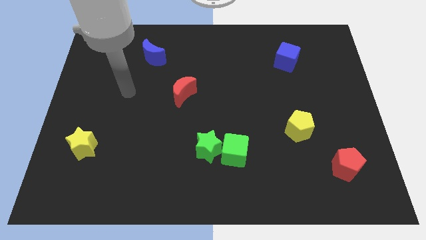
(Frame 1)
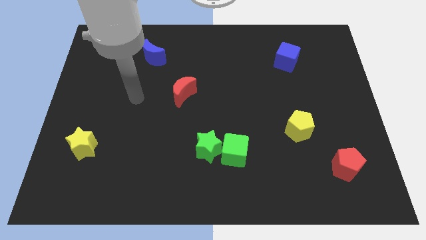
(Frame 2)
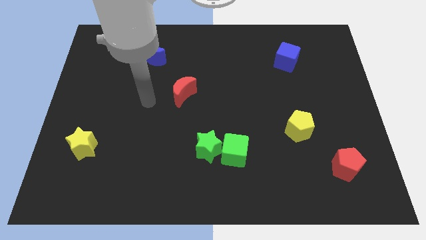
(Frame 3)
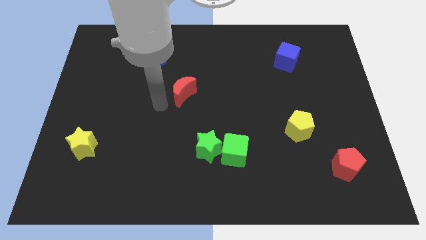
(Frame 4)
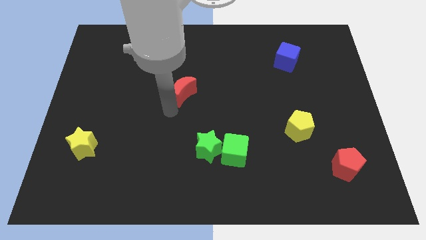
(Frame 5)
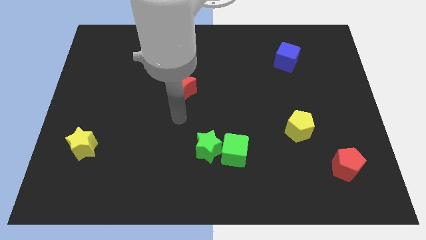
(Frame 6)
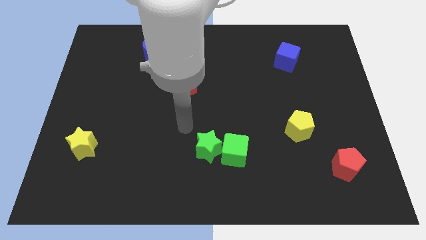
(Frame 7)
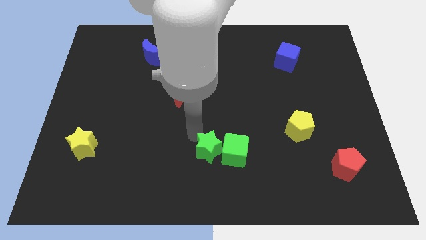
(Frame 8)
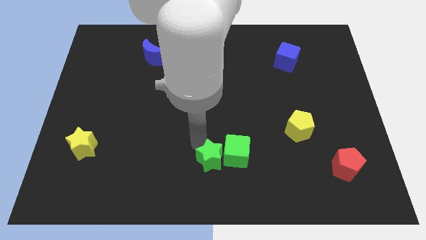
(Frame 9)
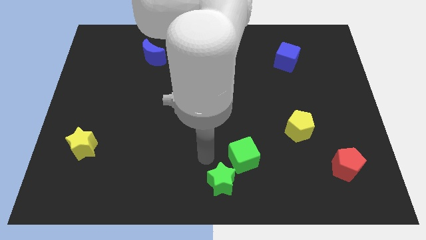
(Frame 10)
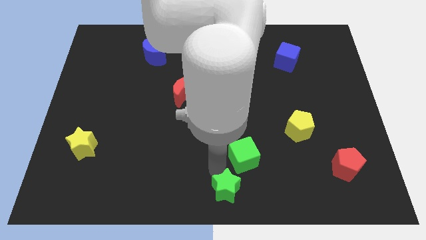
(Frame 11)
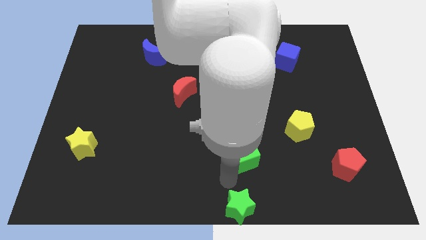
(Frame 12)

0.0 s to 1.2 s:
pull the green cube apart from the green star

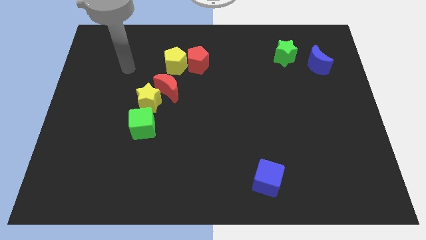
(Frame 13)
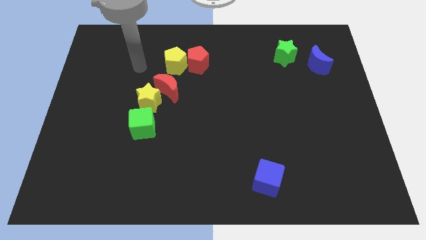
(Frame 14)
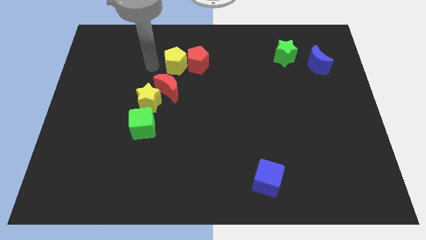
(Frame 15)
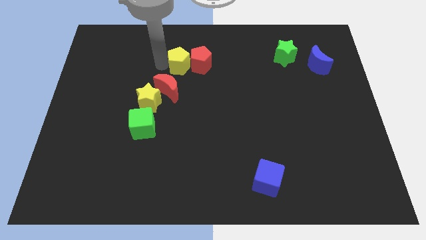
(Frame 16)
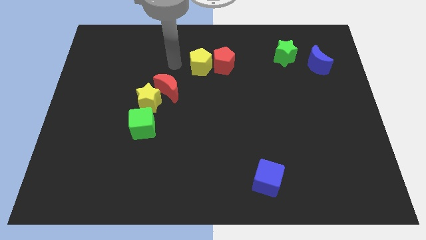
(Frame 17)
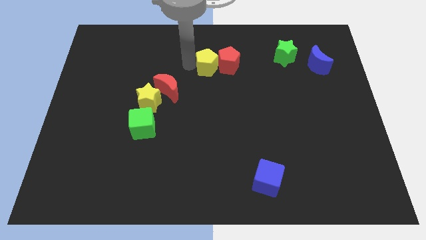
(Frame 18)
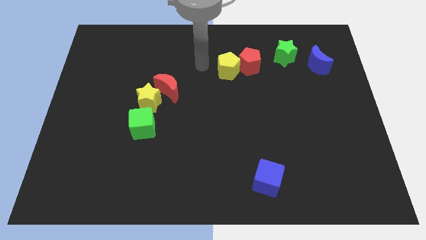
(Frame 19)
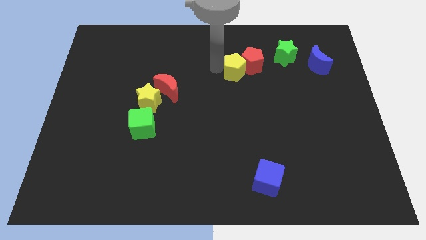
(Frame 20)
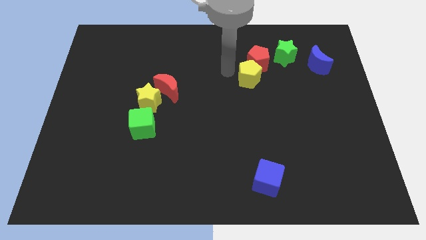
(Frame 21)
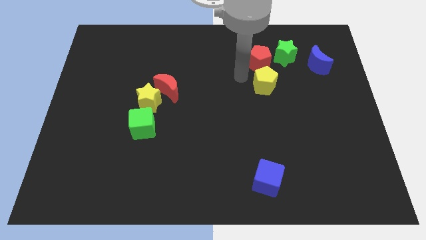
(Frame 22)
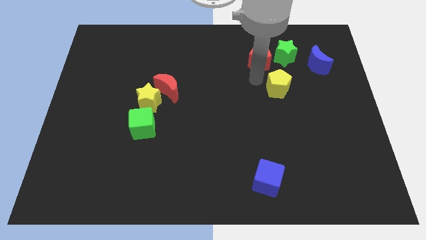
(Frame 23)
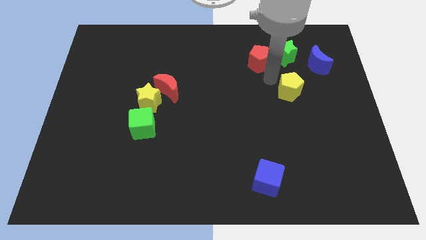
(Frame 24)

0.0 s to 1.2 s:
pull the red pentagon apart from the yellow pentagon

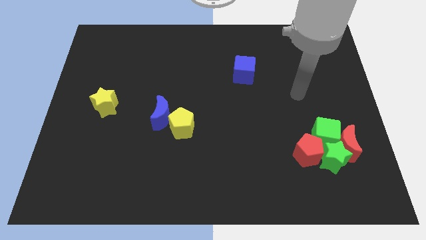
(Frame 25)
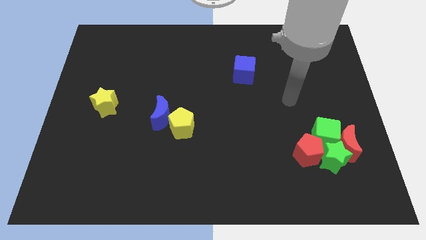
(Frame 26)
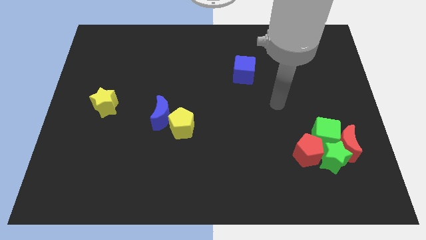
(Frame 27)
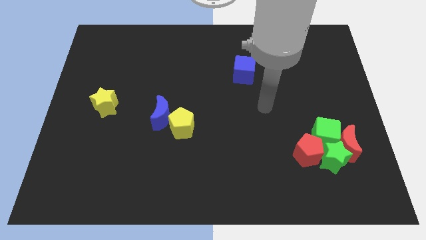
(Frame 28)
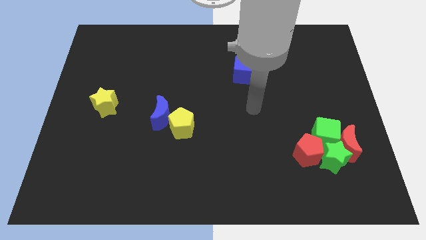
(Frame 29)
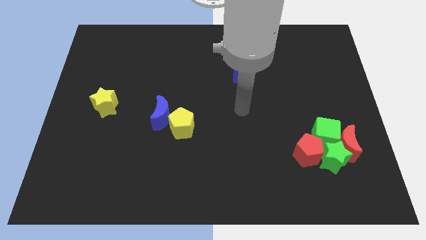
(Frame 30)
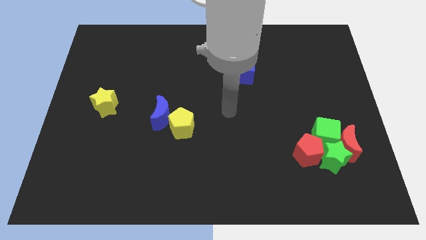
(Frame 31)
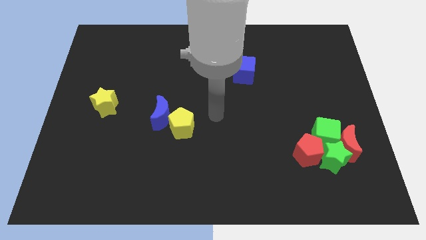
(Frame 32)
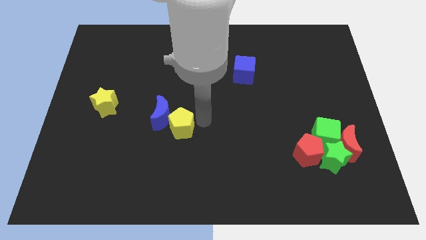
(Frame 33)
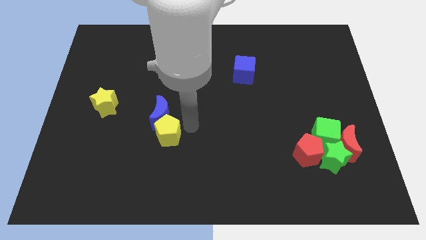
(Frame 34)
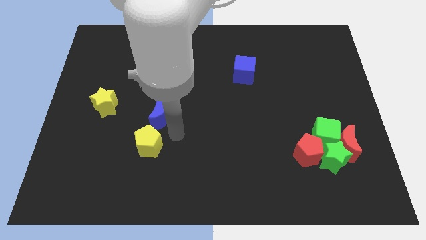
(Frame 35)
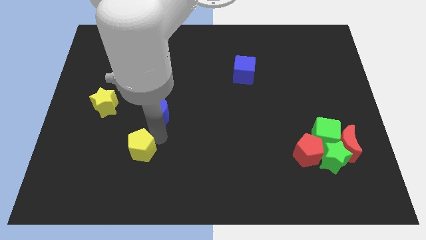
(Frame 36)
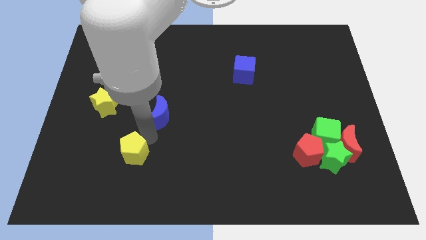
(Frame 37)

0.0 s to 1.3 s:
pull the blue moon apart from the yellow pentagon

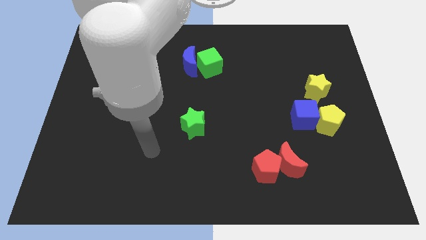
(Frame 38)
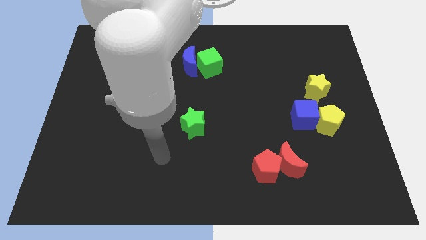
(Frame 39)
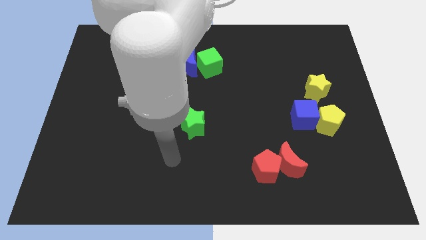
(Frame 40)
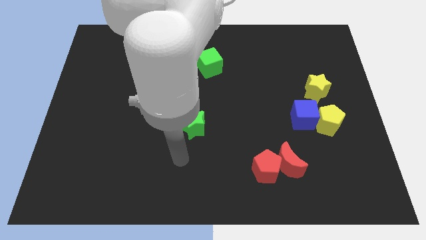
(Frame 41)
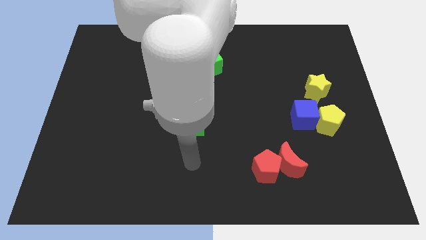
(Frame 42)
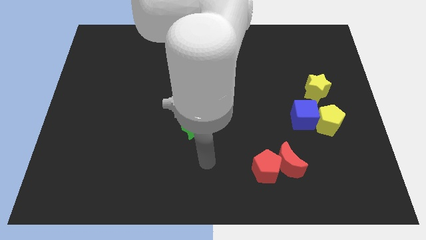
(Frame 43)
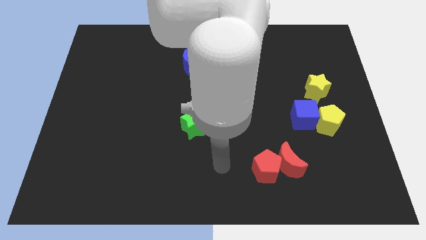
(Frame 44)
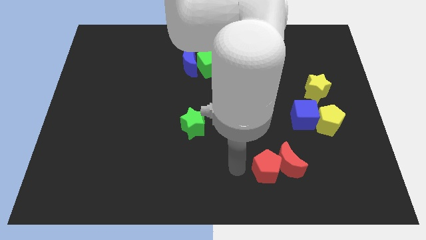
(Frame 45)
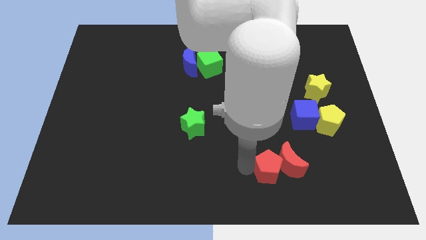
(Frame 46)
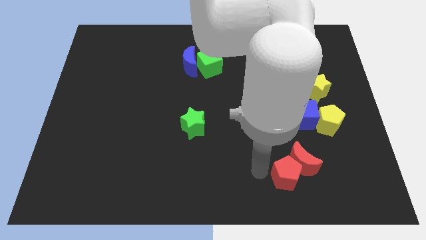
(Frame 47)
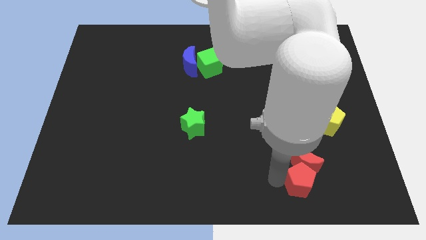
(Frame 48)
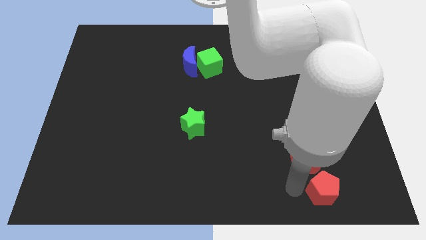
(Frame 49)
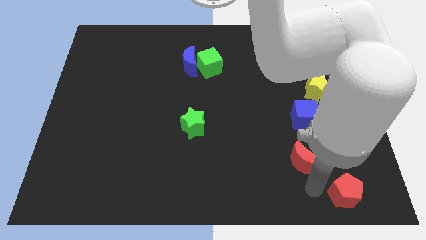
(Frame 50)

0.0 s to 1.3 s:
separate the red moon from the red pentagon

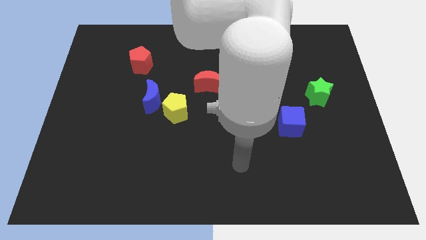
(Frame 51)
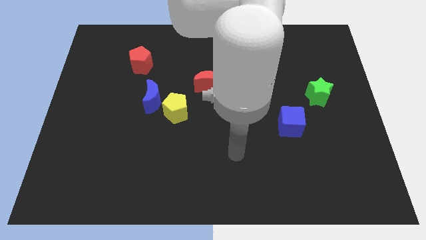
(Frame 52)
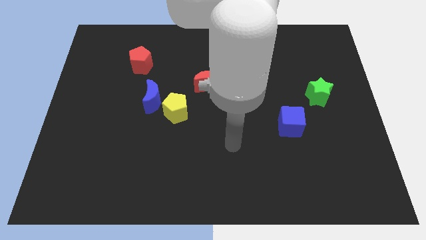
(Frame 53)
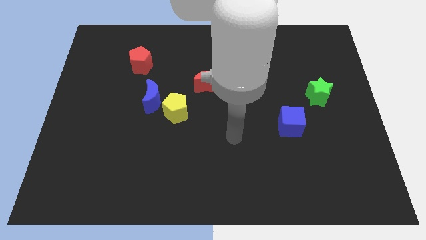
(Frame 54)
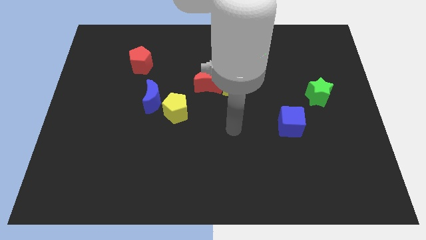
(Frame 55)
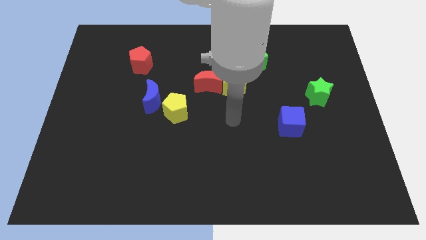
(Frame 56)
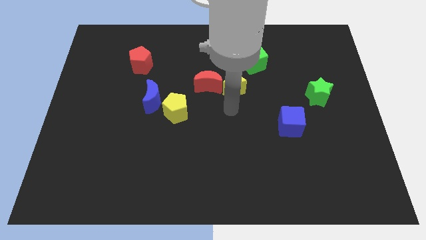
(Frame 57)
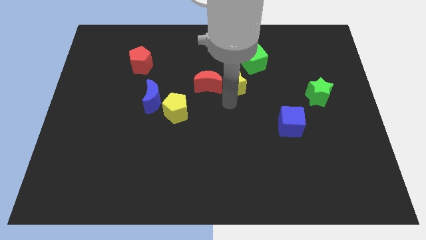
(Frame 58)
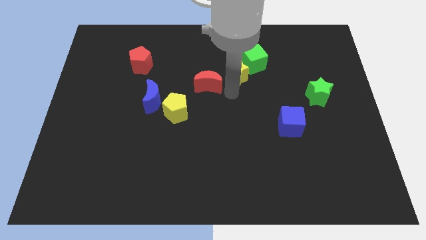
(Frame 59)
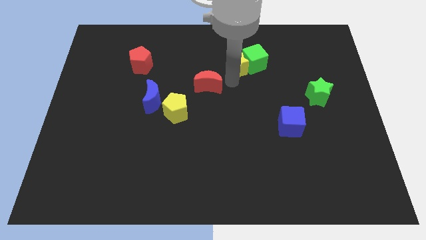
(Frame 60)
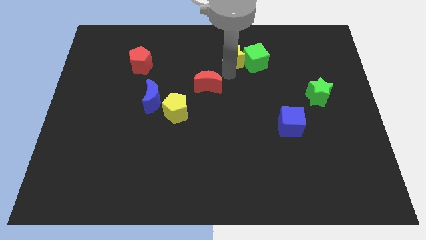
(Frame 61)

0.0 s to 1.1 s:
pull the red moon apart from the yellow star

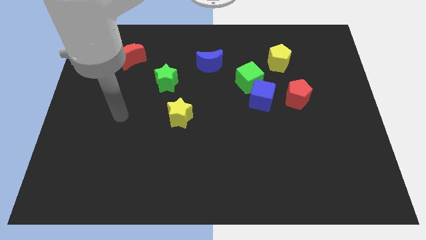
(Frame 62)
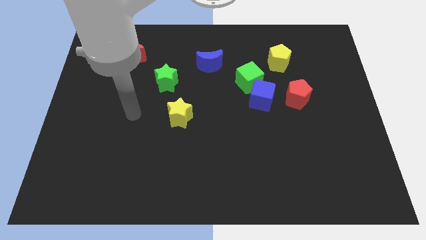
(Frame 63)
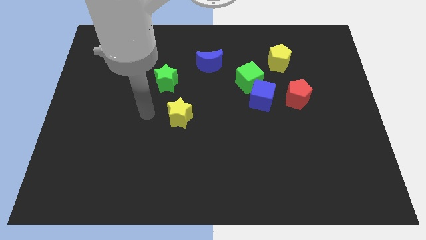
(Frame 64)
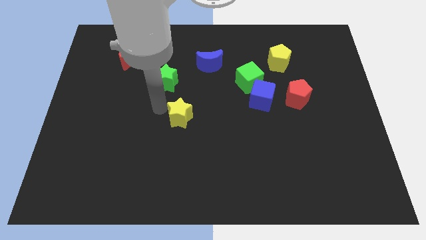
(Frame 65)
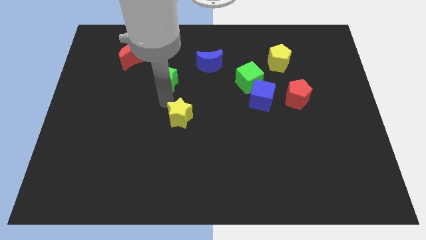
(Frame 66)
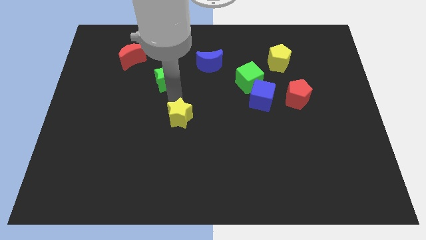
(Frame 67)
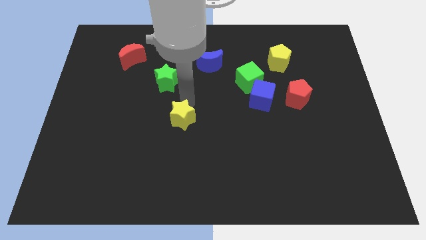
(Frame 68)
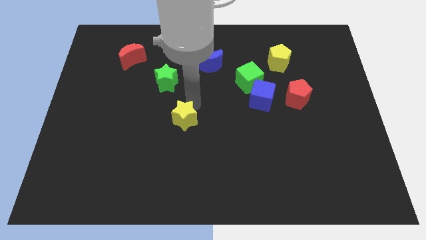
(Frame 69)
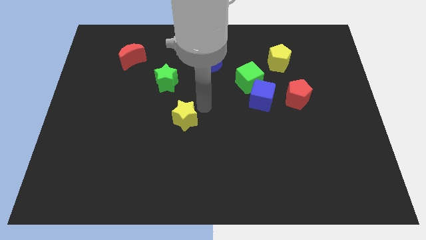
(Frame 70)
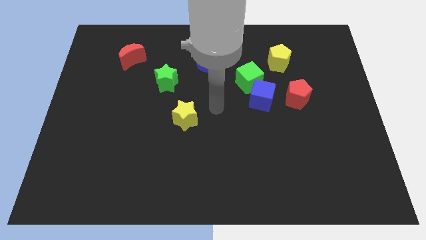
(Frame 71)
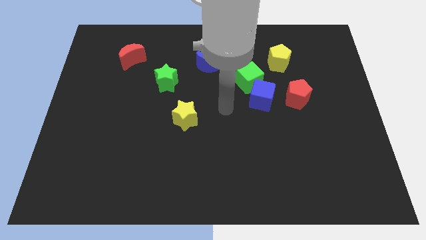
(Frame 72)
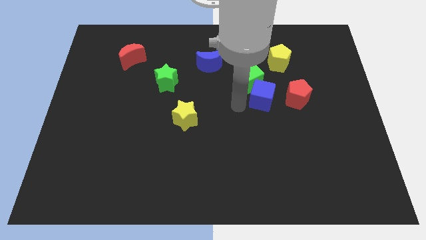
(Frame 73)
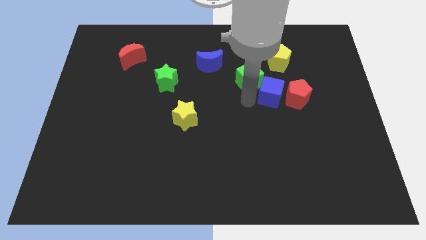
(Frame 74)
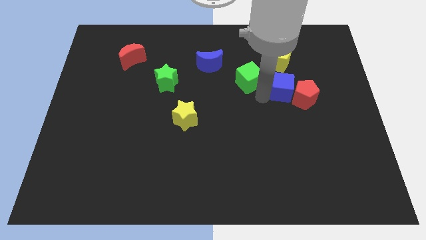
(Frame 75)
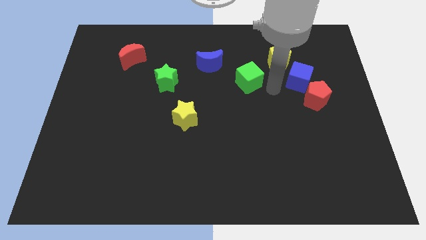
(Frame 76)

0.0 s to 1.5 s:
pull the green cube apart from the blue cube

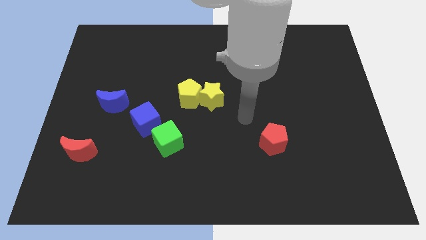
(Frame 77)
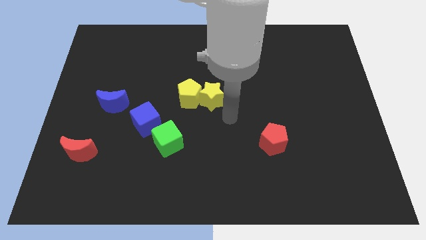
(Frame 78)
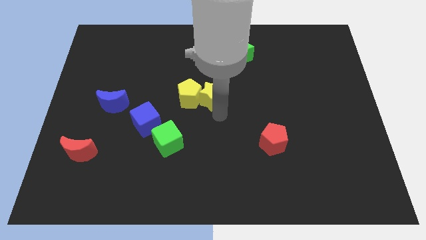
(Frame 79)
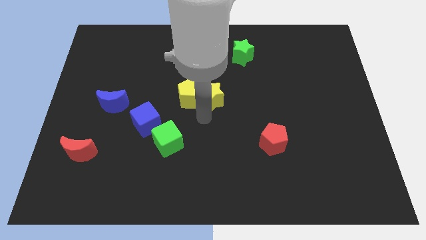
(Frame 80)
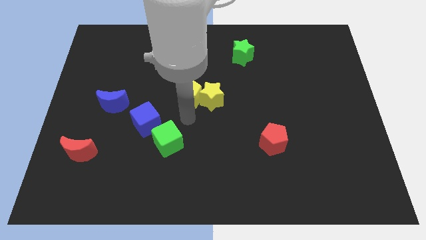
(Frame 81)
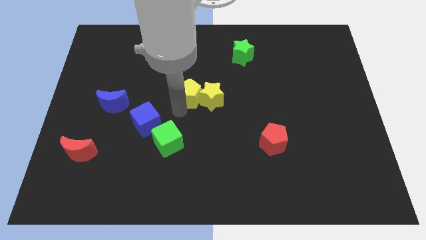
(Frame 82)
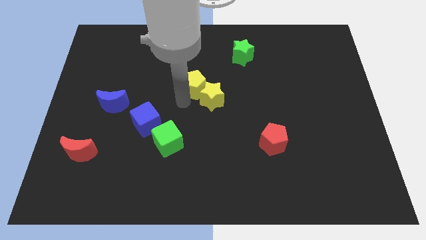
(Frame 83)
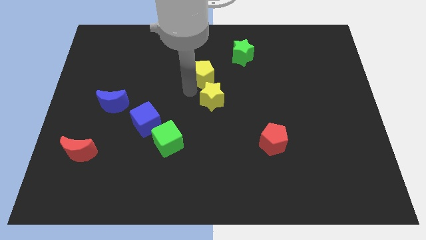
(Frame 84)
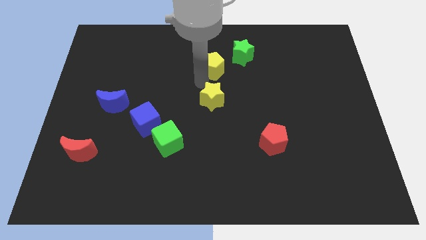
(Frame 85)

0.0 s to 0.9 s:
pull the yellow star apart from the yellow pentagon

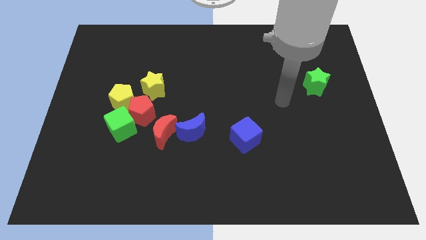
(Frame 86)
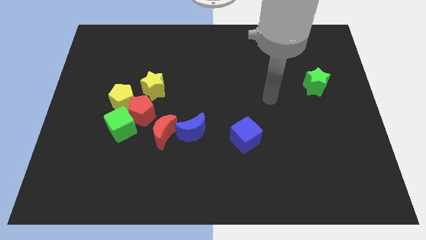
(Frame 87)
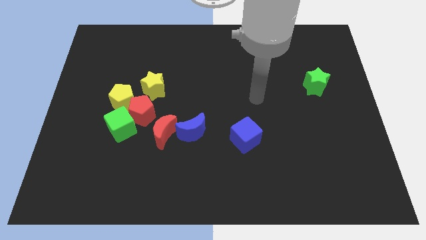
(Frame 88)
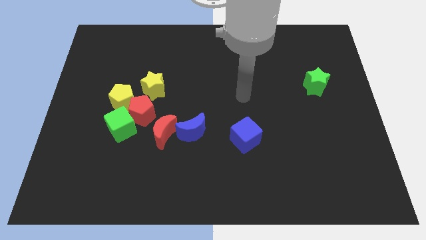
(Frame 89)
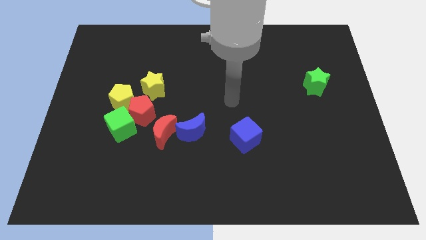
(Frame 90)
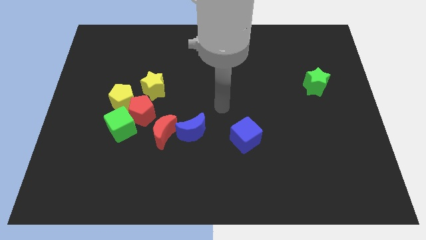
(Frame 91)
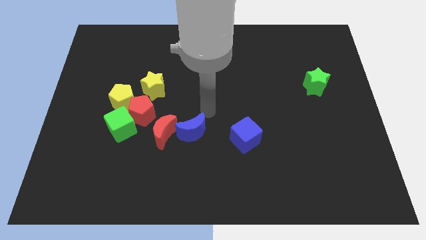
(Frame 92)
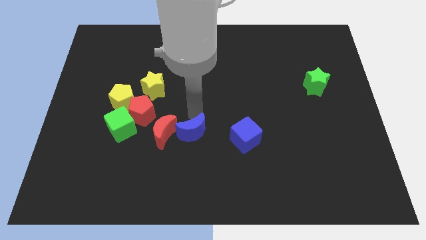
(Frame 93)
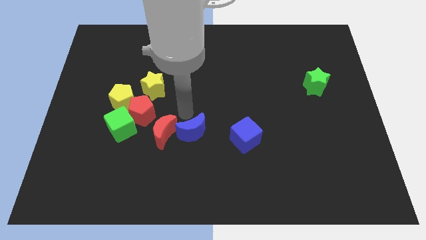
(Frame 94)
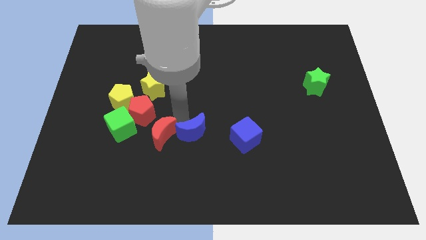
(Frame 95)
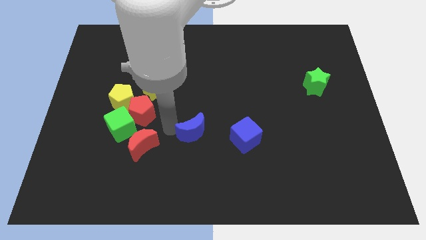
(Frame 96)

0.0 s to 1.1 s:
move the blue moon away from the red moon
